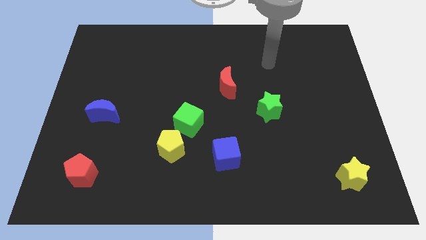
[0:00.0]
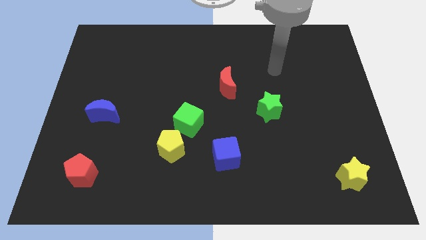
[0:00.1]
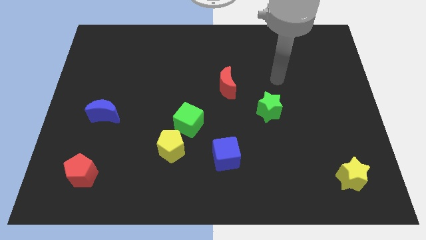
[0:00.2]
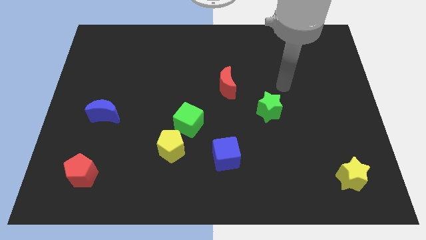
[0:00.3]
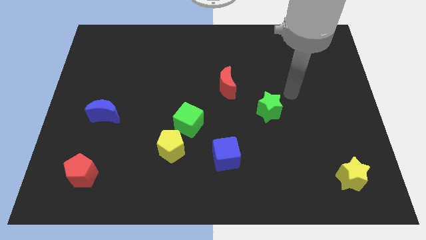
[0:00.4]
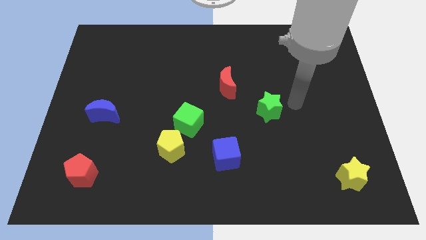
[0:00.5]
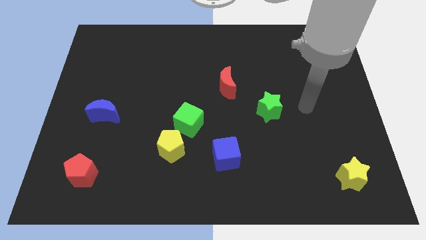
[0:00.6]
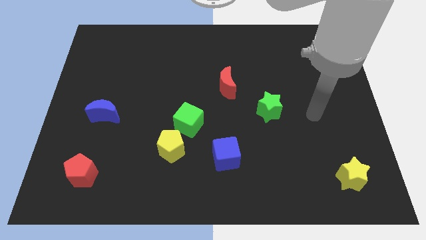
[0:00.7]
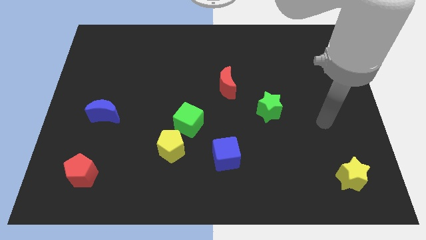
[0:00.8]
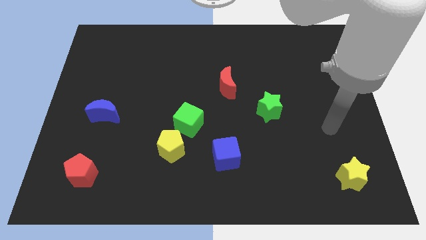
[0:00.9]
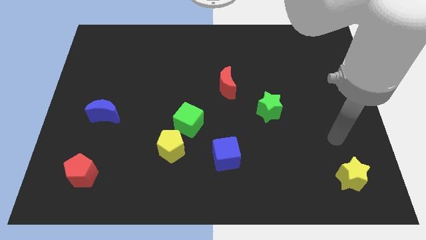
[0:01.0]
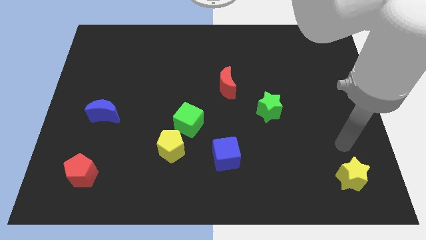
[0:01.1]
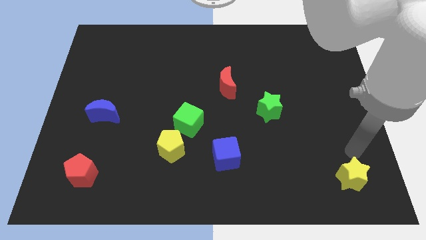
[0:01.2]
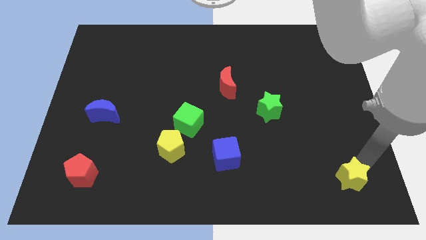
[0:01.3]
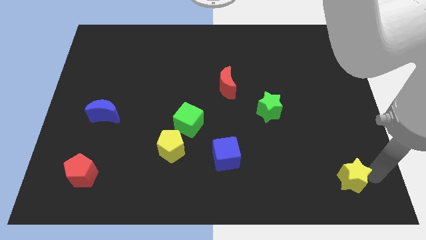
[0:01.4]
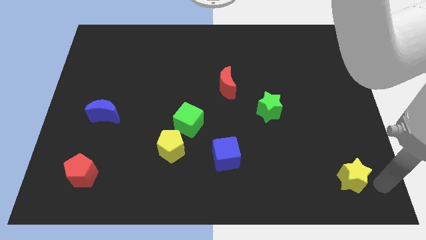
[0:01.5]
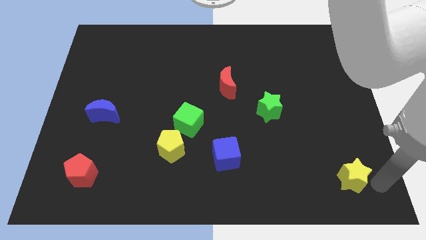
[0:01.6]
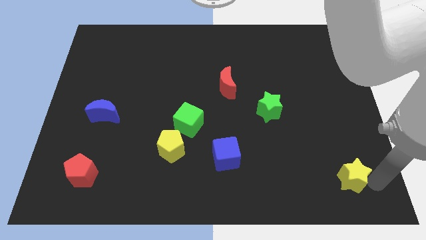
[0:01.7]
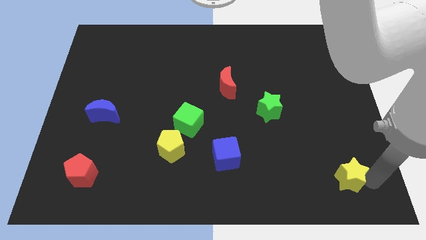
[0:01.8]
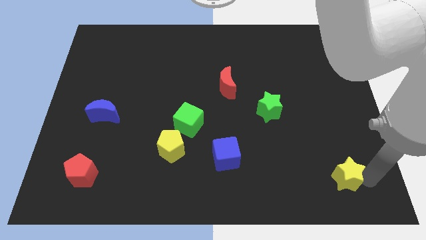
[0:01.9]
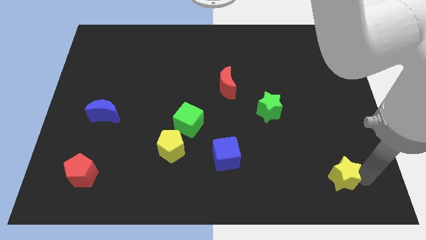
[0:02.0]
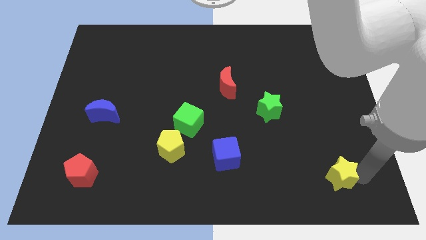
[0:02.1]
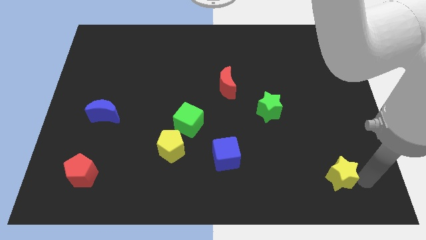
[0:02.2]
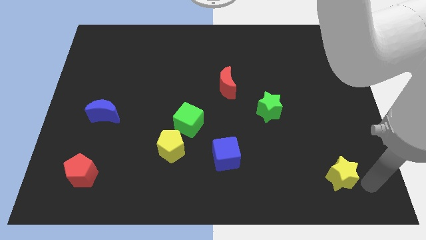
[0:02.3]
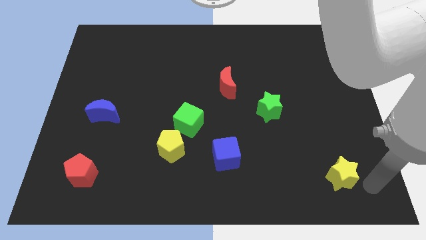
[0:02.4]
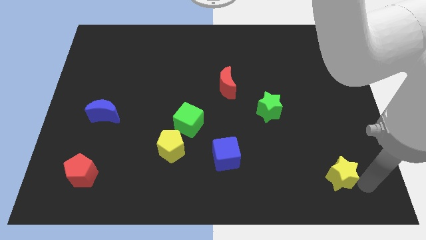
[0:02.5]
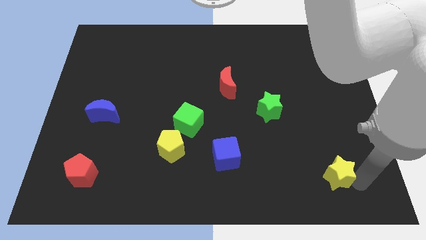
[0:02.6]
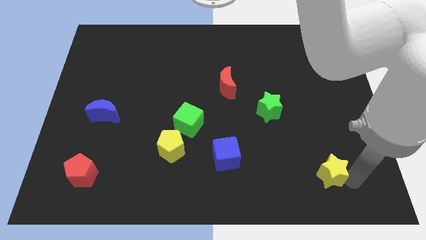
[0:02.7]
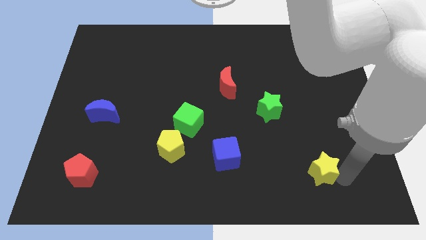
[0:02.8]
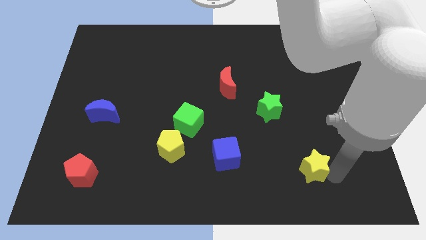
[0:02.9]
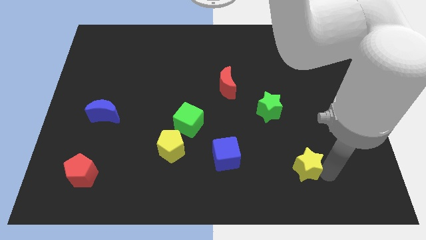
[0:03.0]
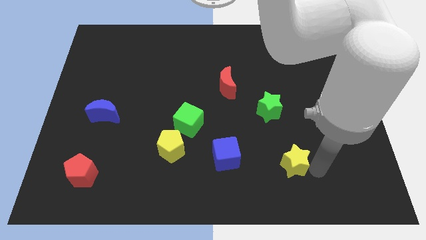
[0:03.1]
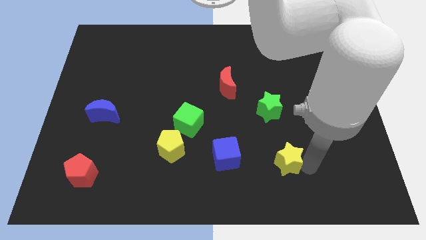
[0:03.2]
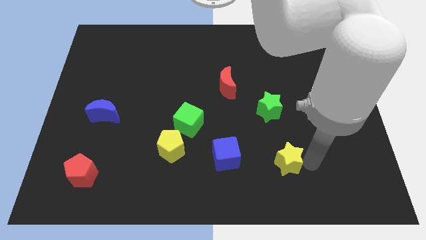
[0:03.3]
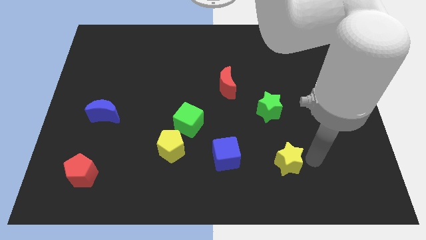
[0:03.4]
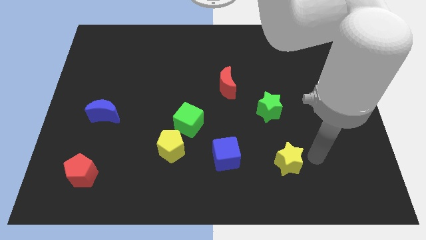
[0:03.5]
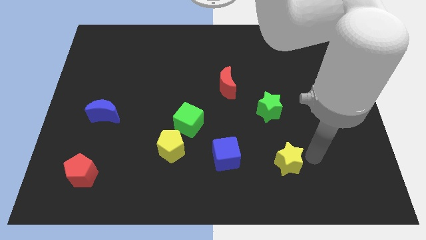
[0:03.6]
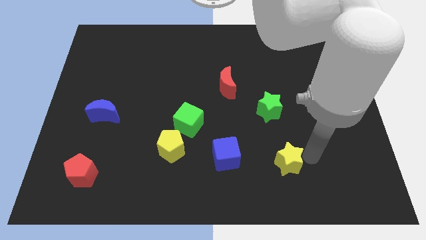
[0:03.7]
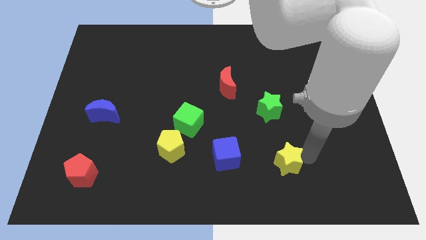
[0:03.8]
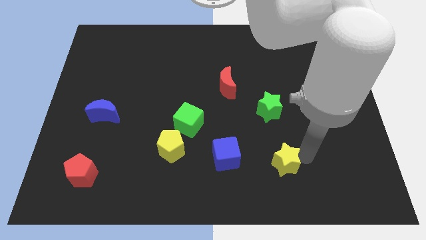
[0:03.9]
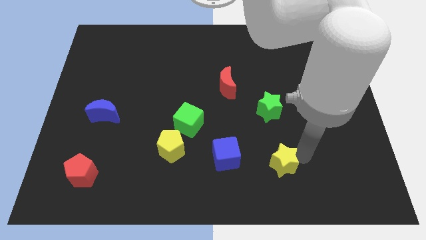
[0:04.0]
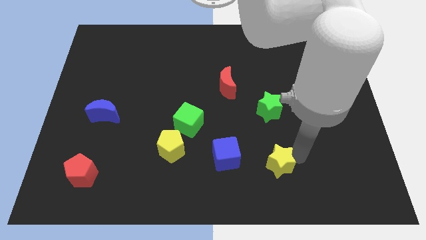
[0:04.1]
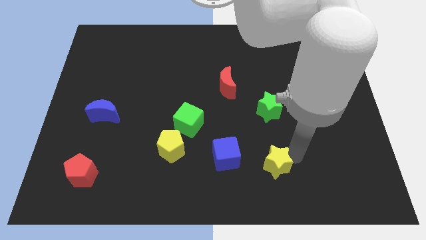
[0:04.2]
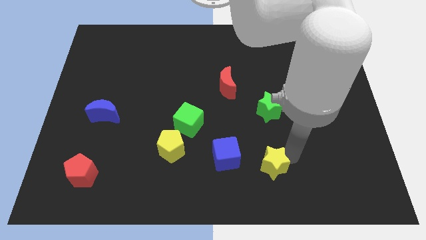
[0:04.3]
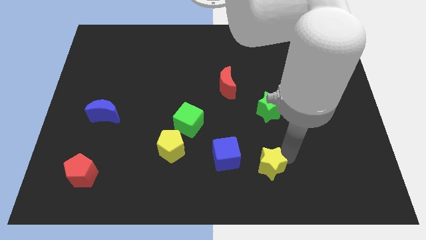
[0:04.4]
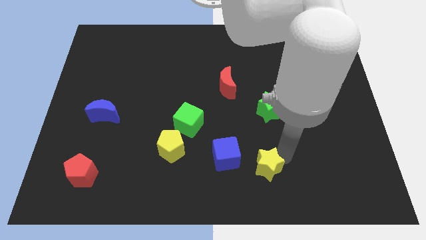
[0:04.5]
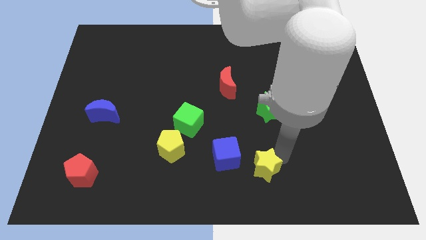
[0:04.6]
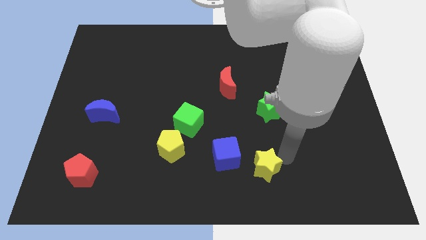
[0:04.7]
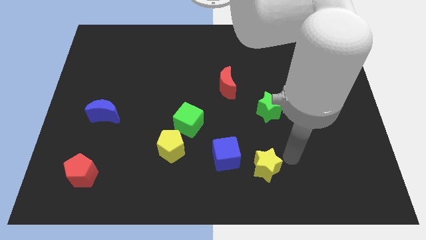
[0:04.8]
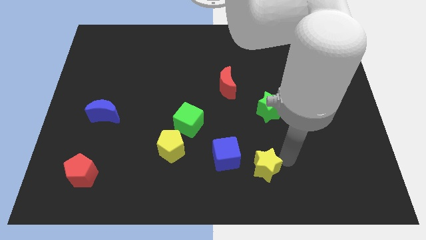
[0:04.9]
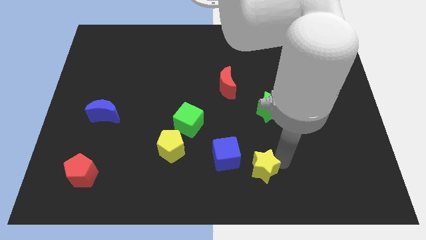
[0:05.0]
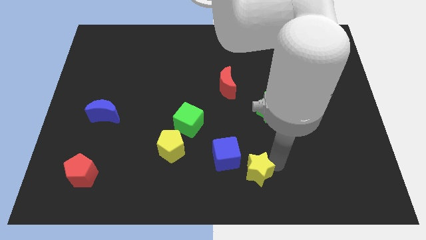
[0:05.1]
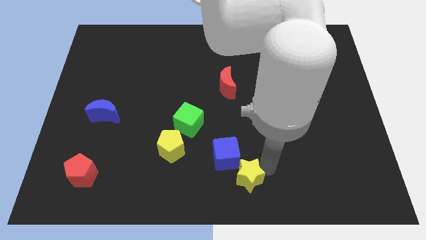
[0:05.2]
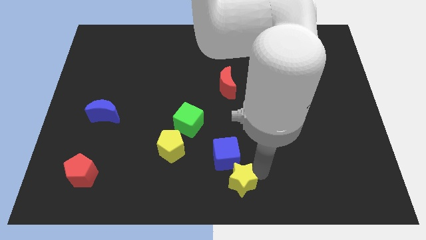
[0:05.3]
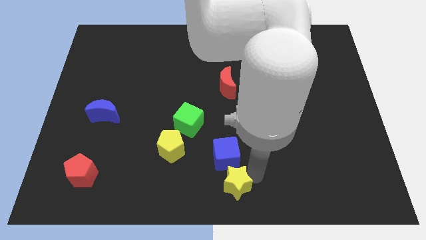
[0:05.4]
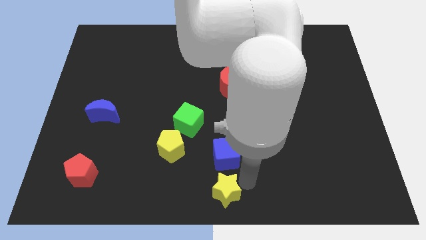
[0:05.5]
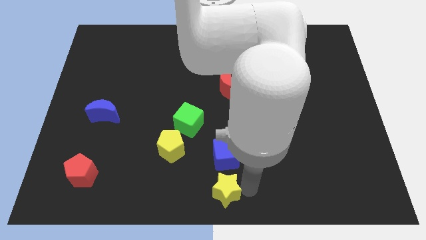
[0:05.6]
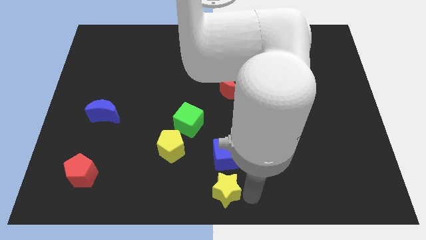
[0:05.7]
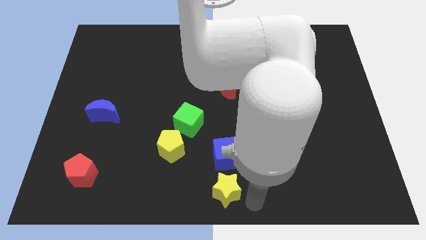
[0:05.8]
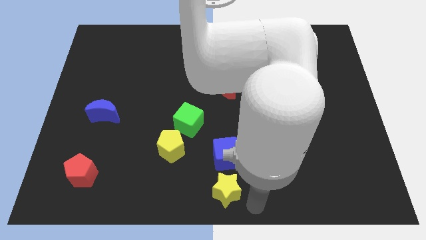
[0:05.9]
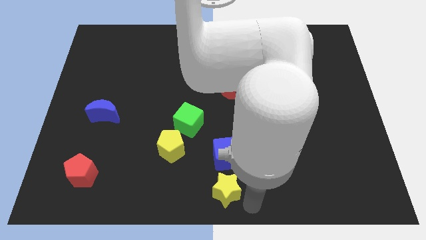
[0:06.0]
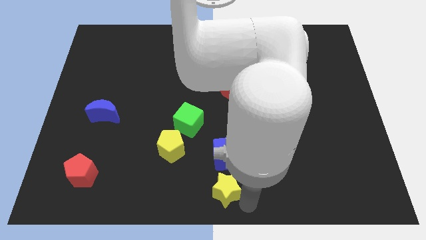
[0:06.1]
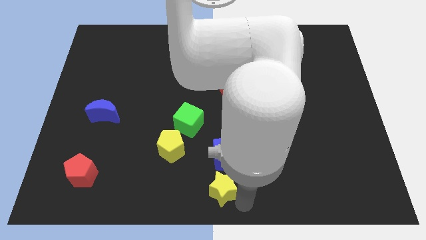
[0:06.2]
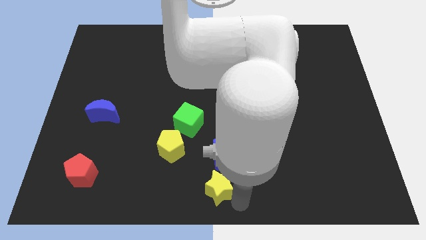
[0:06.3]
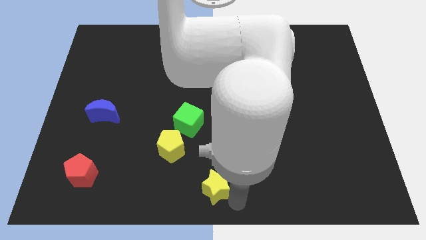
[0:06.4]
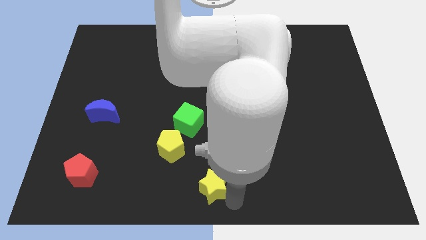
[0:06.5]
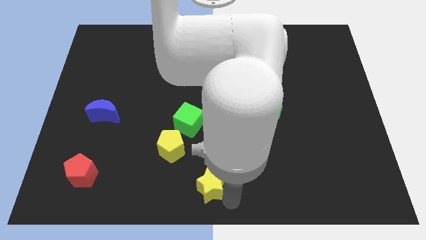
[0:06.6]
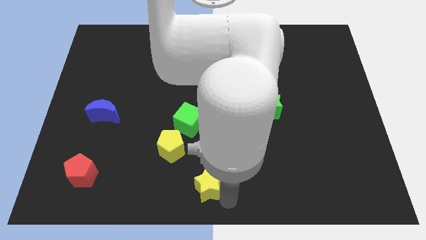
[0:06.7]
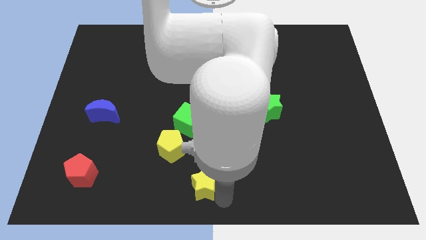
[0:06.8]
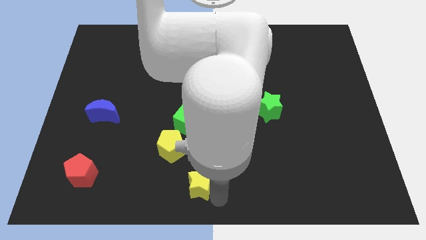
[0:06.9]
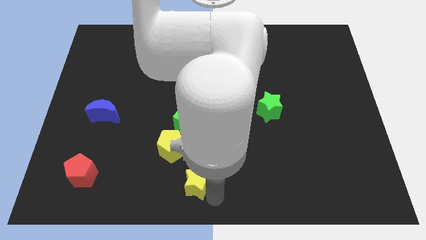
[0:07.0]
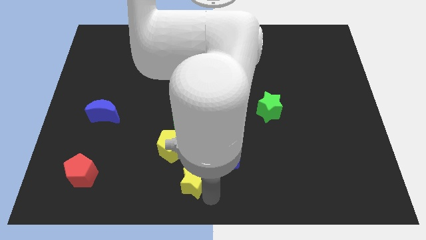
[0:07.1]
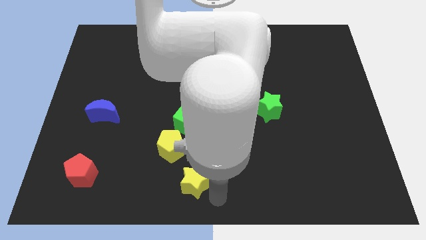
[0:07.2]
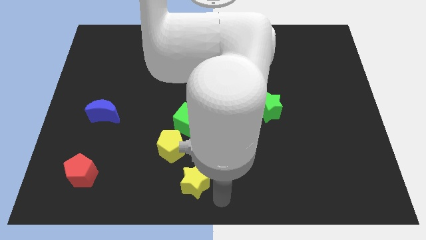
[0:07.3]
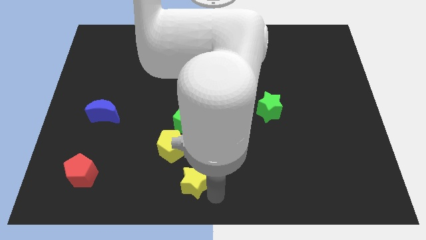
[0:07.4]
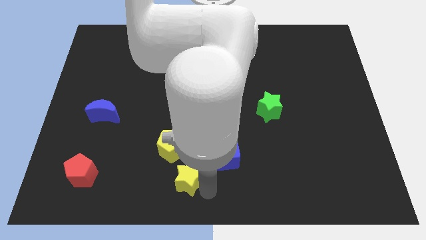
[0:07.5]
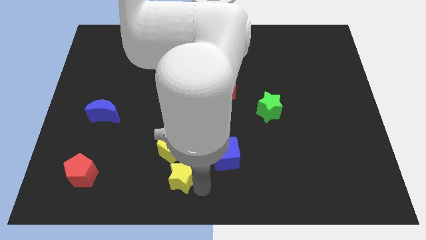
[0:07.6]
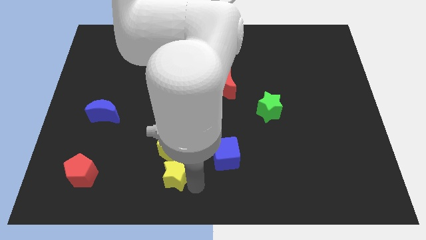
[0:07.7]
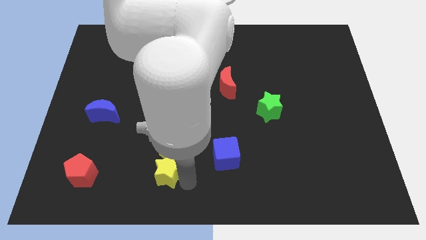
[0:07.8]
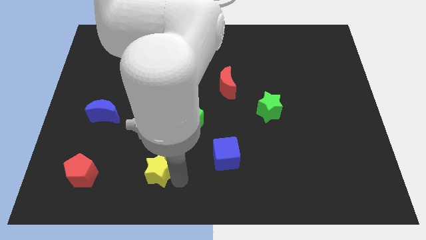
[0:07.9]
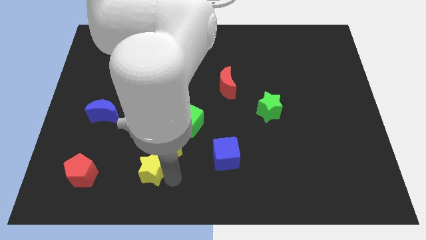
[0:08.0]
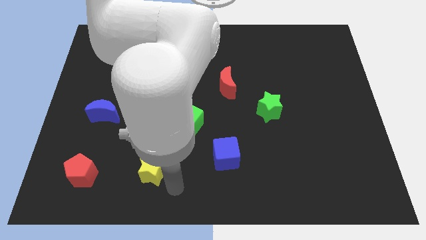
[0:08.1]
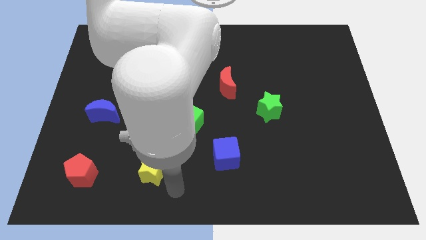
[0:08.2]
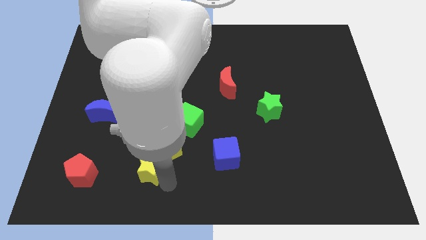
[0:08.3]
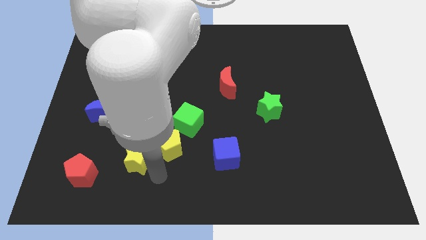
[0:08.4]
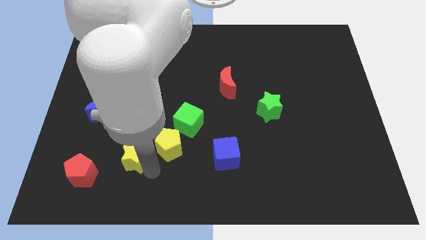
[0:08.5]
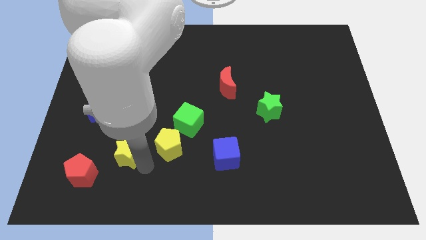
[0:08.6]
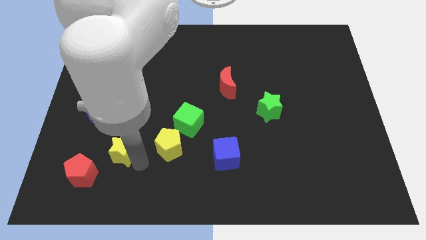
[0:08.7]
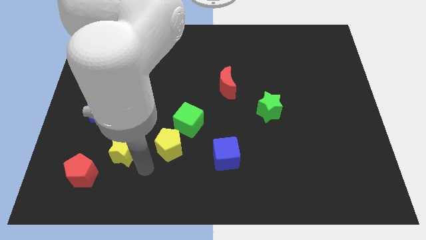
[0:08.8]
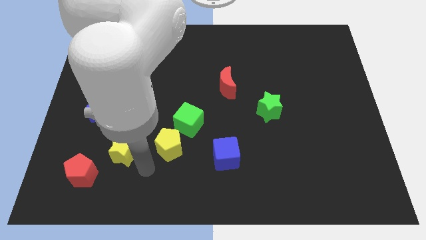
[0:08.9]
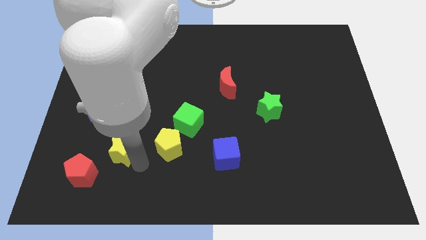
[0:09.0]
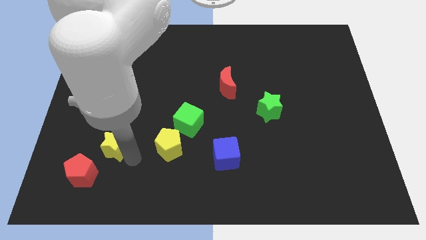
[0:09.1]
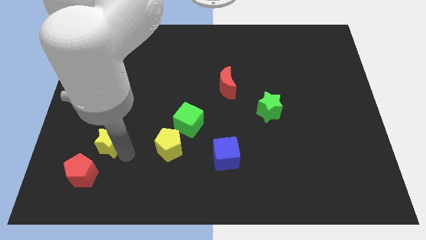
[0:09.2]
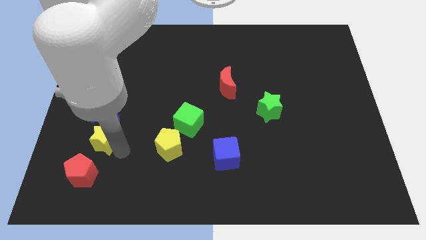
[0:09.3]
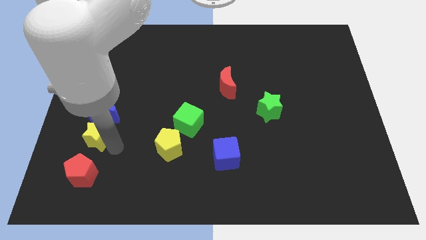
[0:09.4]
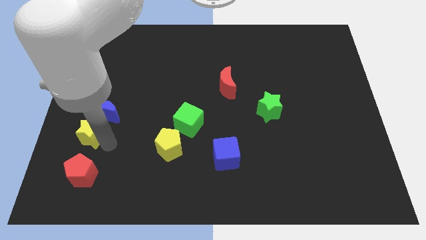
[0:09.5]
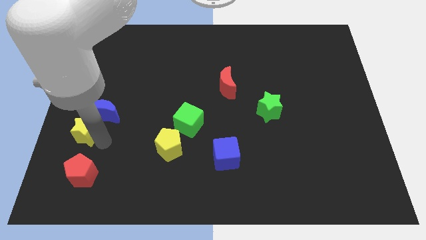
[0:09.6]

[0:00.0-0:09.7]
push the yellow star to the left side
